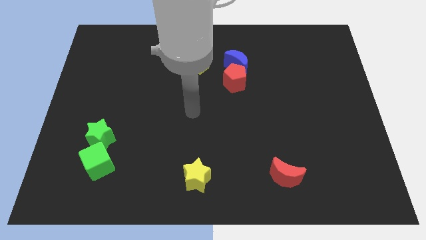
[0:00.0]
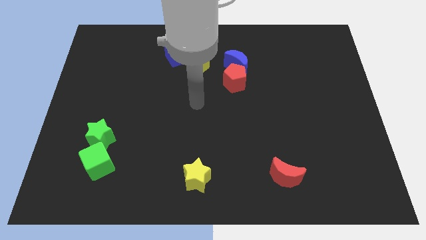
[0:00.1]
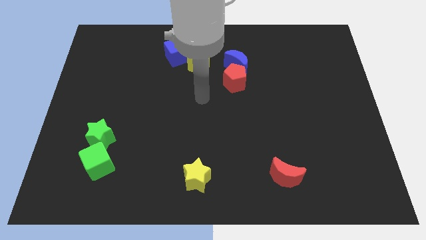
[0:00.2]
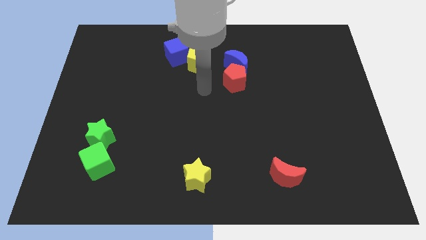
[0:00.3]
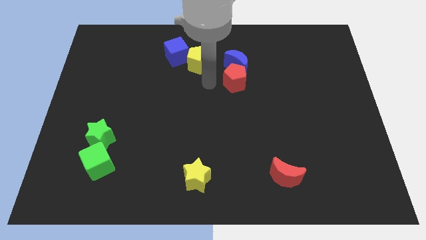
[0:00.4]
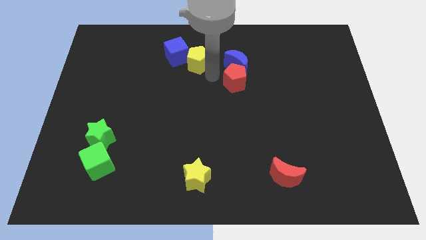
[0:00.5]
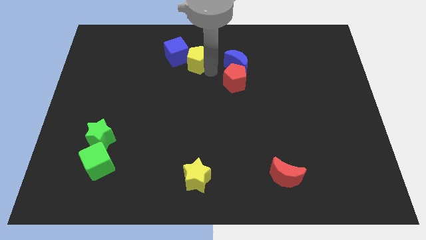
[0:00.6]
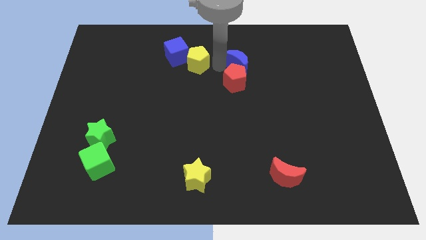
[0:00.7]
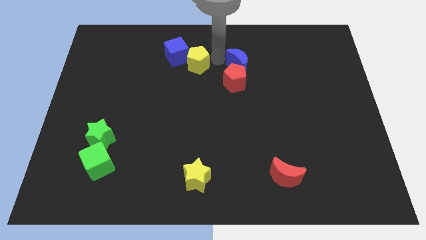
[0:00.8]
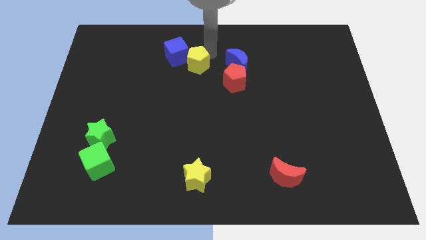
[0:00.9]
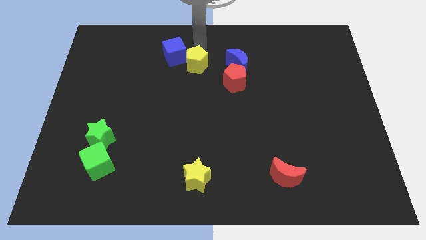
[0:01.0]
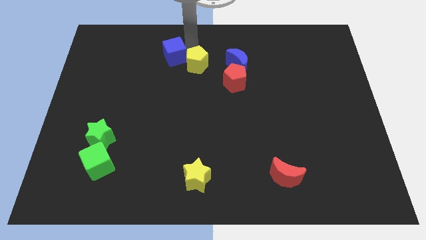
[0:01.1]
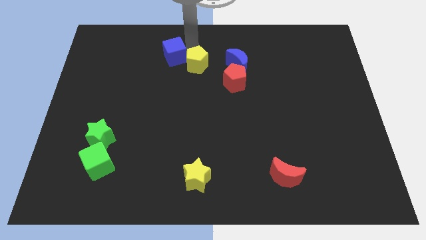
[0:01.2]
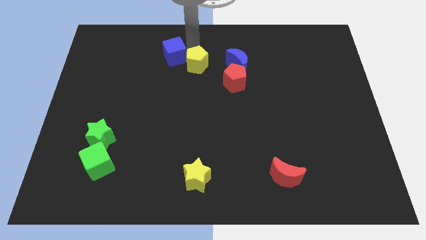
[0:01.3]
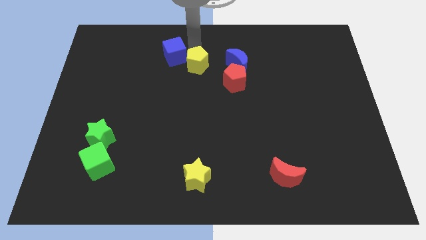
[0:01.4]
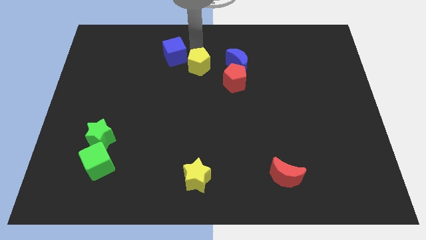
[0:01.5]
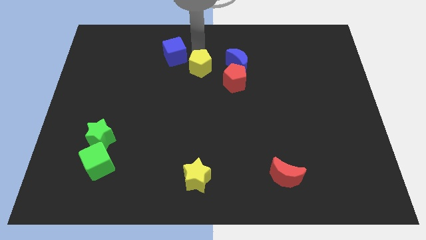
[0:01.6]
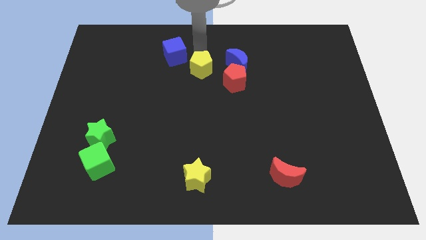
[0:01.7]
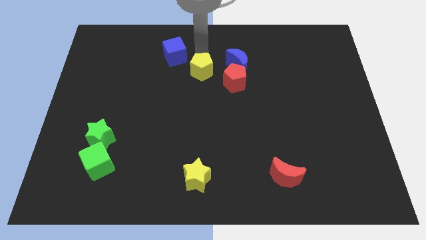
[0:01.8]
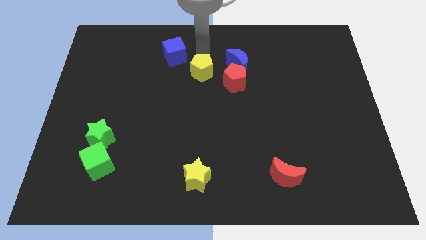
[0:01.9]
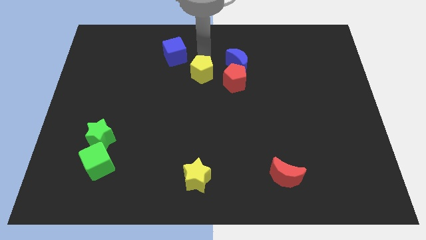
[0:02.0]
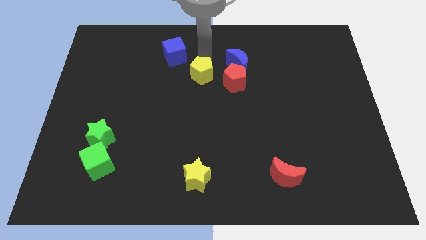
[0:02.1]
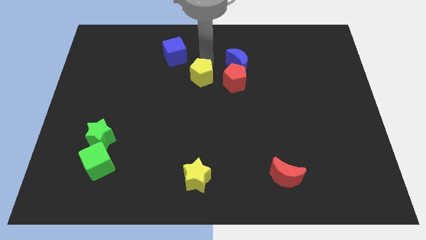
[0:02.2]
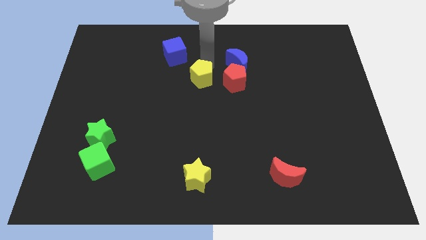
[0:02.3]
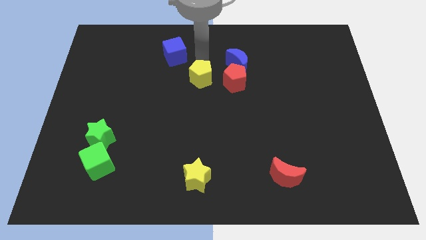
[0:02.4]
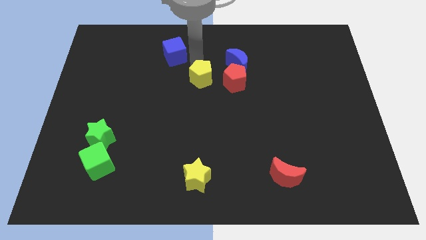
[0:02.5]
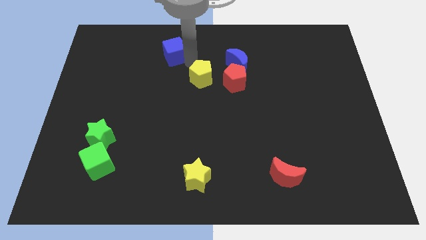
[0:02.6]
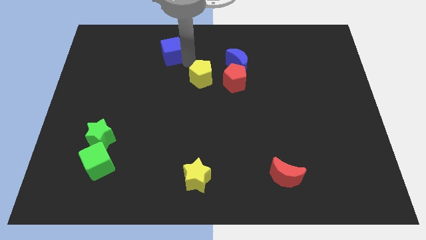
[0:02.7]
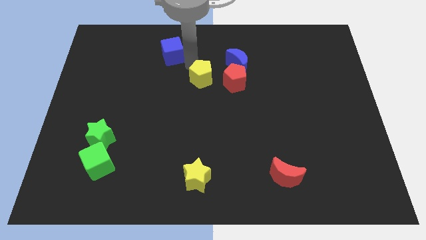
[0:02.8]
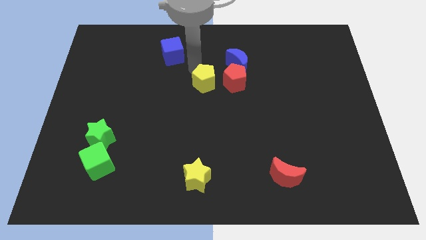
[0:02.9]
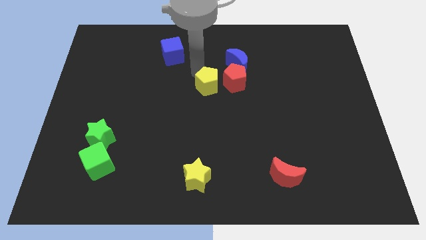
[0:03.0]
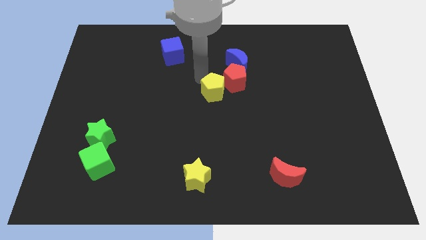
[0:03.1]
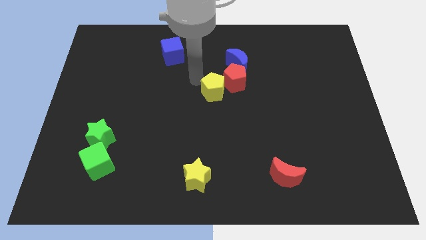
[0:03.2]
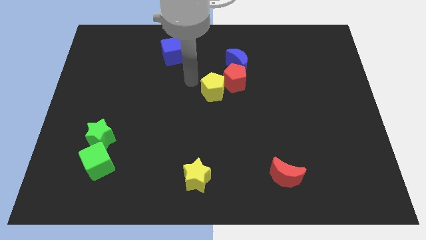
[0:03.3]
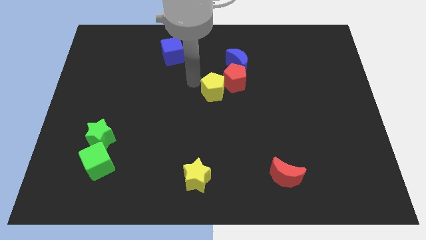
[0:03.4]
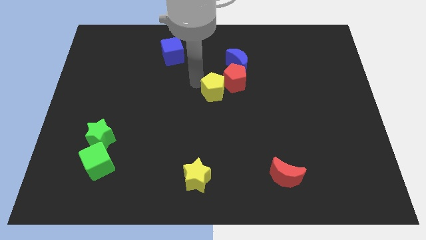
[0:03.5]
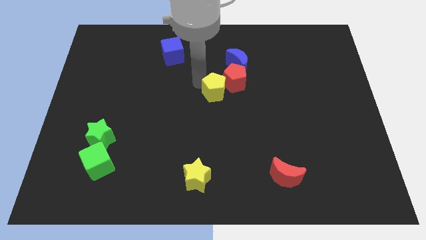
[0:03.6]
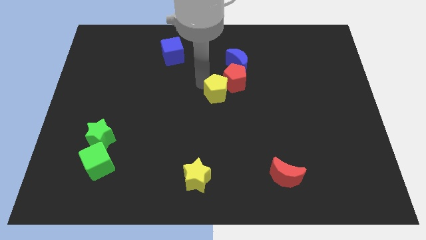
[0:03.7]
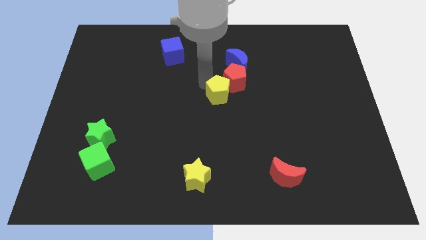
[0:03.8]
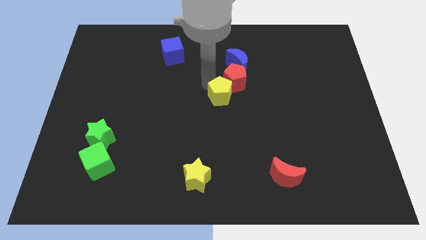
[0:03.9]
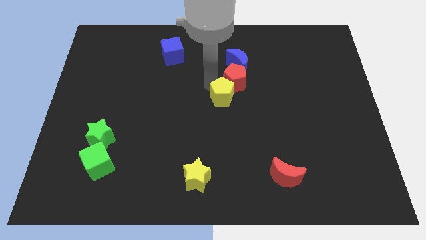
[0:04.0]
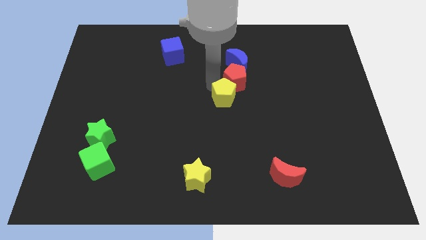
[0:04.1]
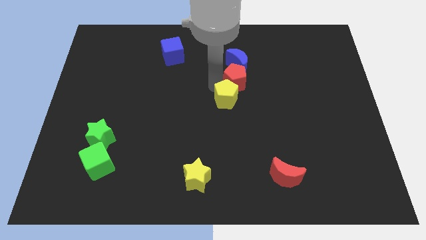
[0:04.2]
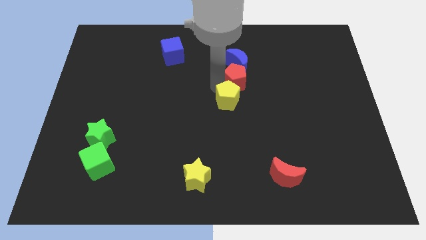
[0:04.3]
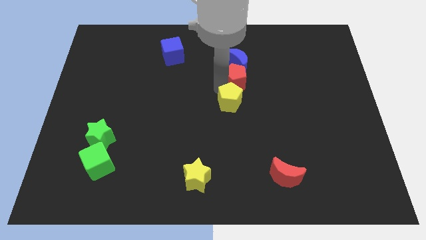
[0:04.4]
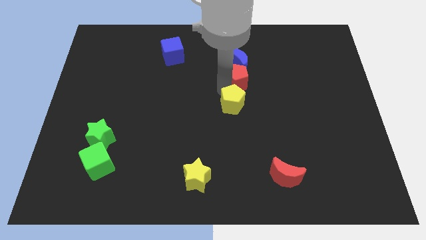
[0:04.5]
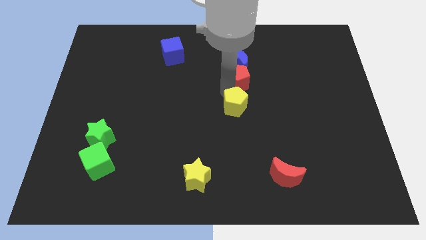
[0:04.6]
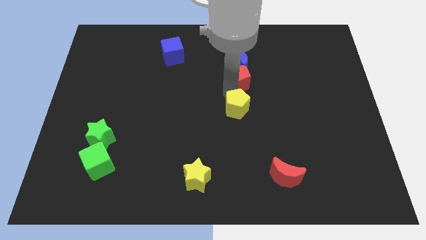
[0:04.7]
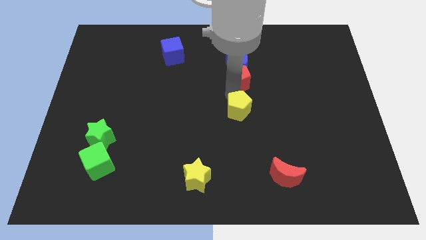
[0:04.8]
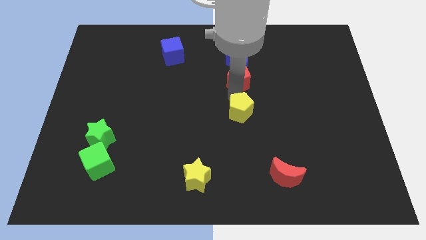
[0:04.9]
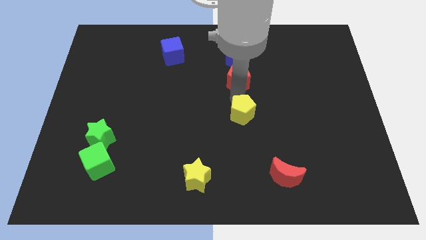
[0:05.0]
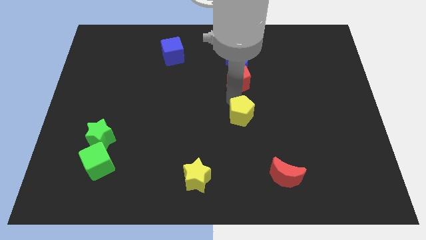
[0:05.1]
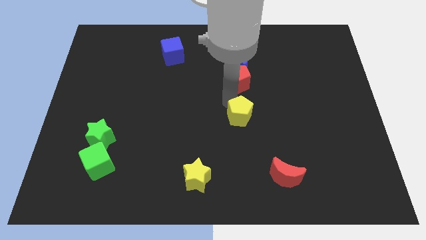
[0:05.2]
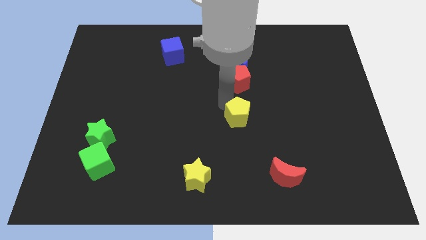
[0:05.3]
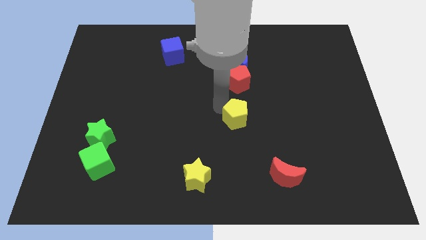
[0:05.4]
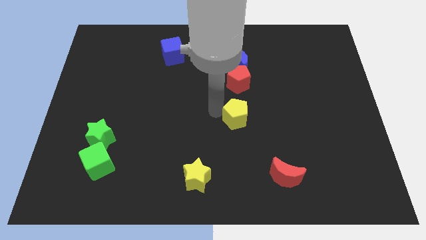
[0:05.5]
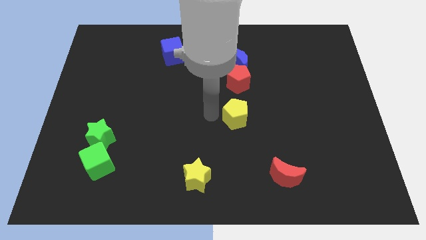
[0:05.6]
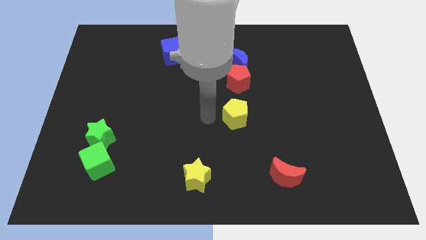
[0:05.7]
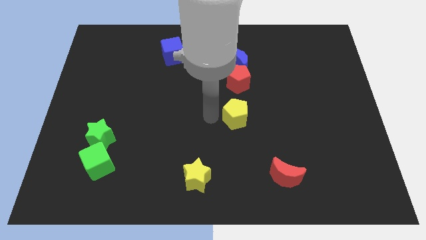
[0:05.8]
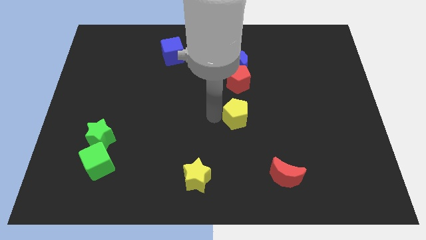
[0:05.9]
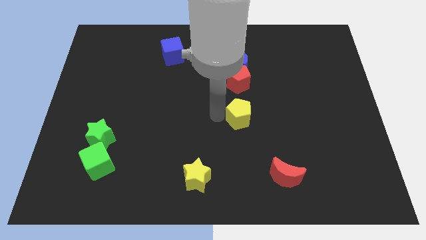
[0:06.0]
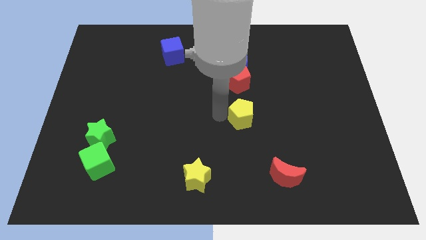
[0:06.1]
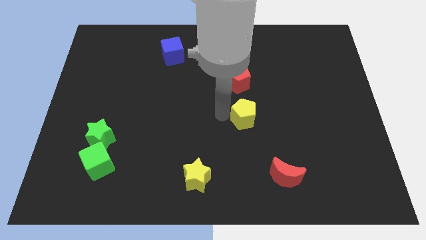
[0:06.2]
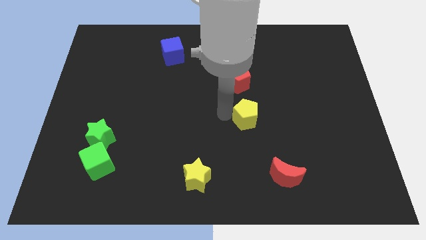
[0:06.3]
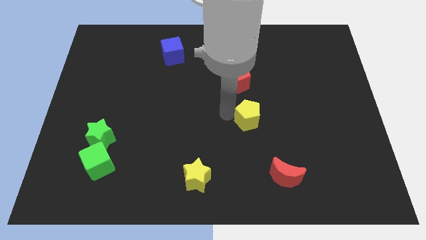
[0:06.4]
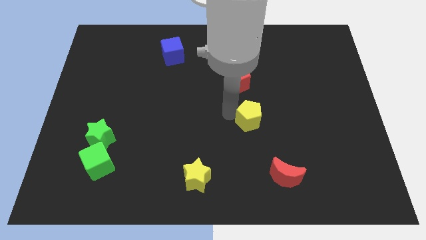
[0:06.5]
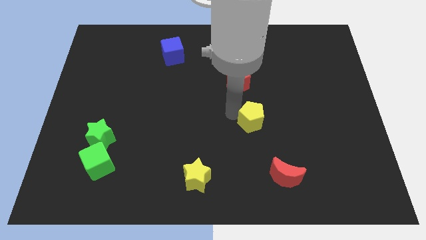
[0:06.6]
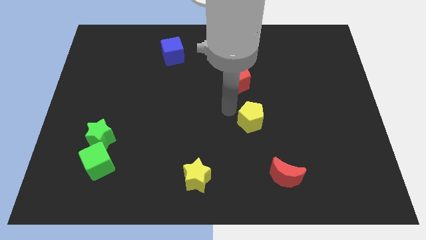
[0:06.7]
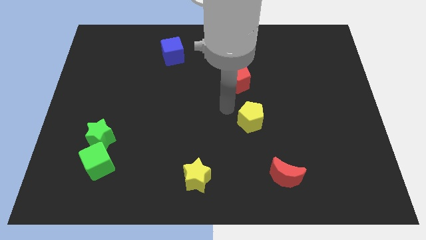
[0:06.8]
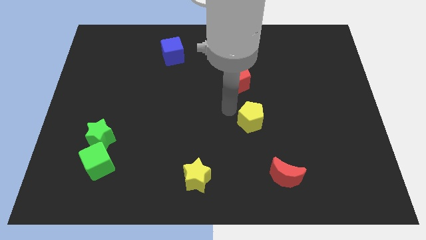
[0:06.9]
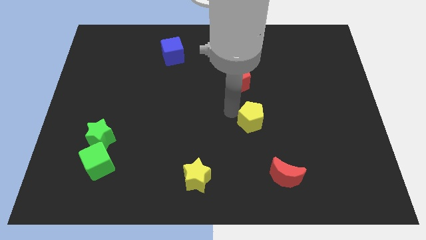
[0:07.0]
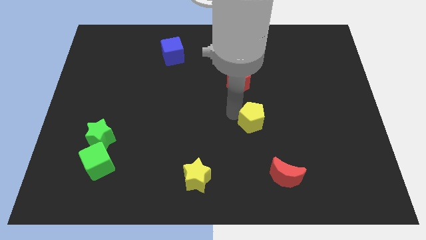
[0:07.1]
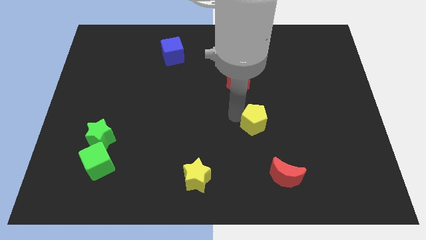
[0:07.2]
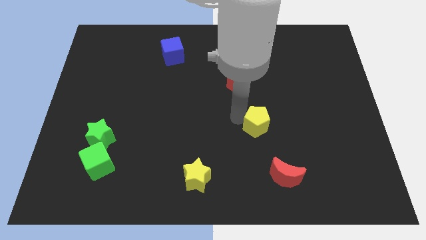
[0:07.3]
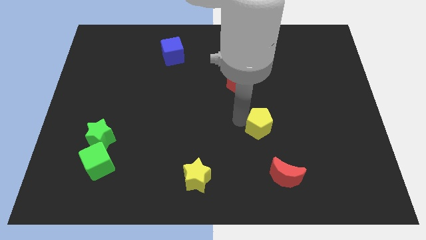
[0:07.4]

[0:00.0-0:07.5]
put the yellow pentagon to the top of the red moon
